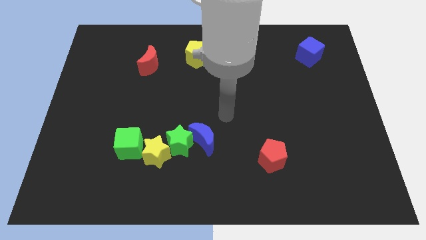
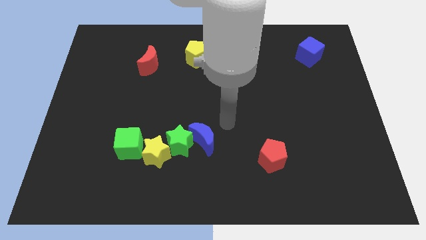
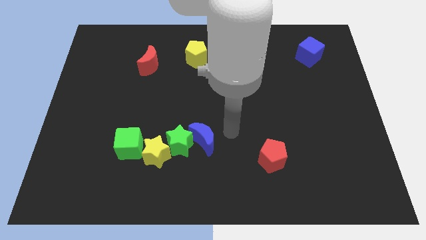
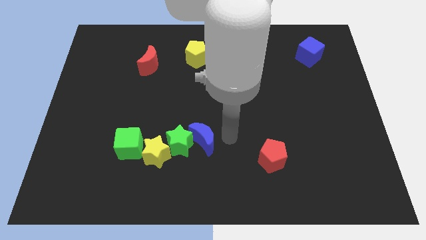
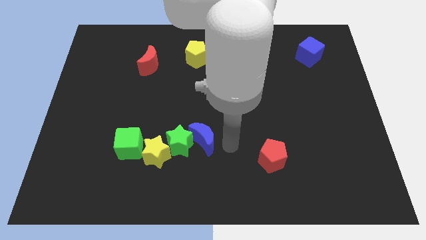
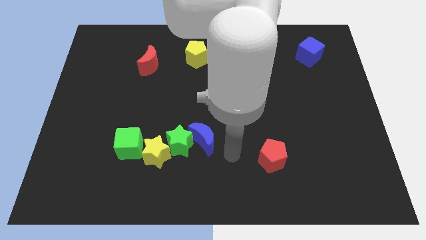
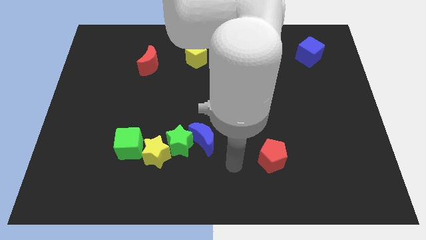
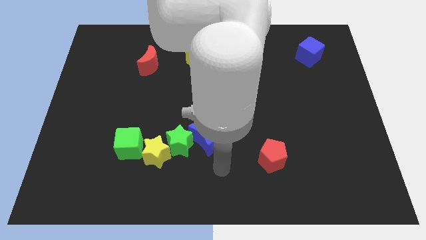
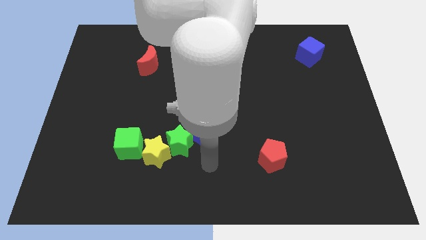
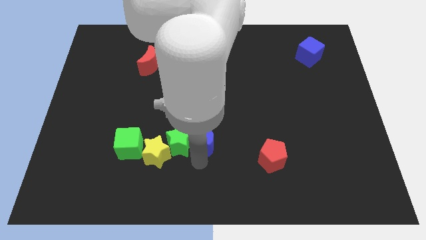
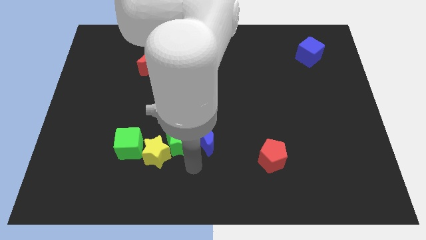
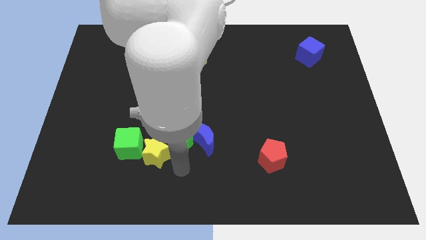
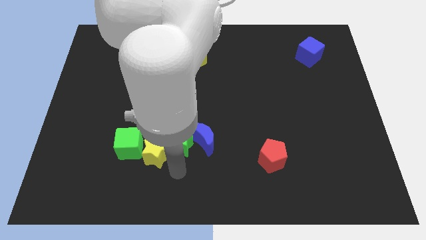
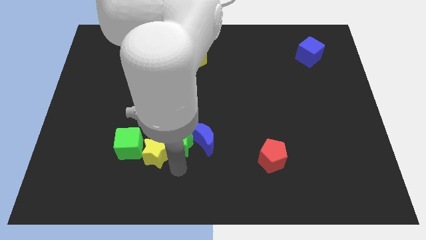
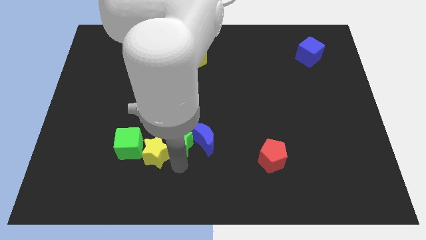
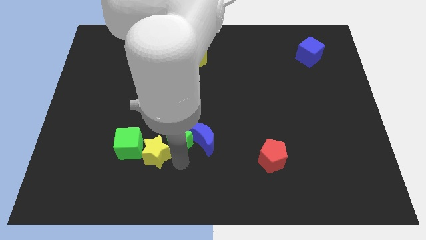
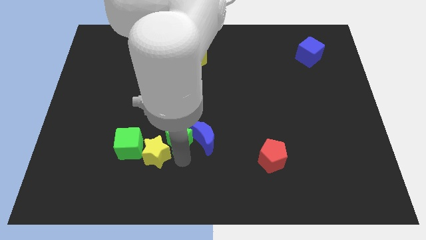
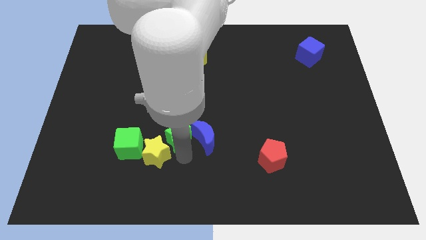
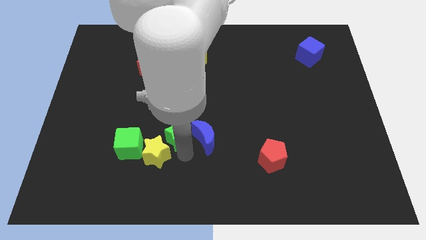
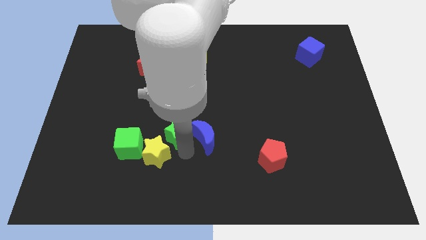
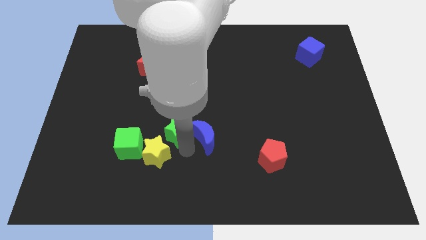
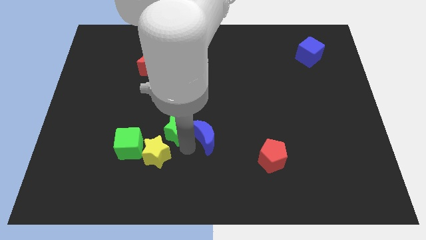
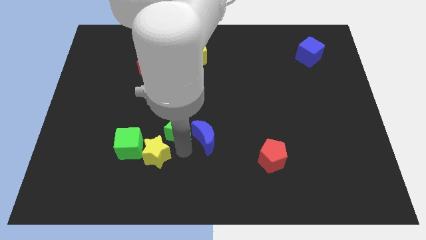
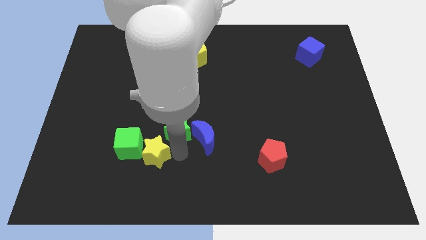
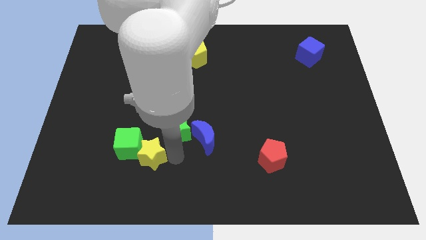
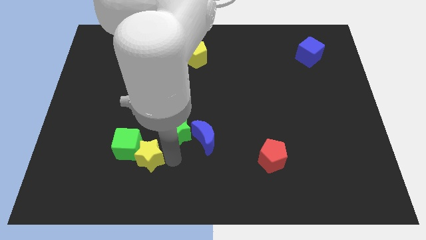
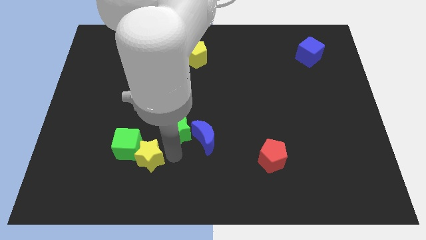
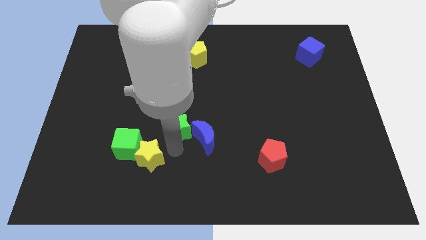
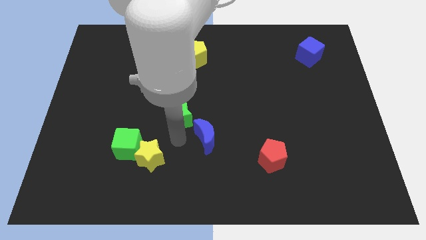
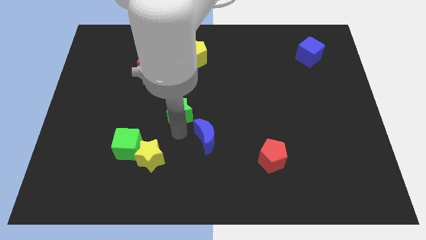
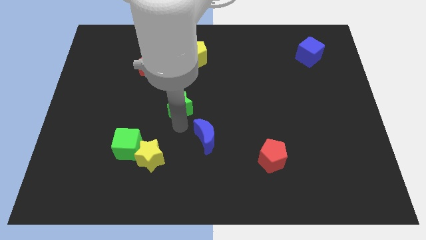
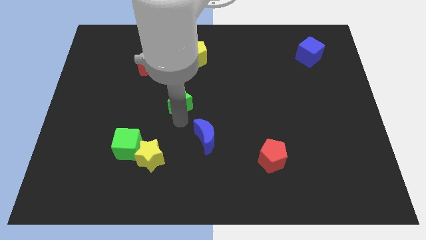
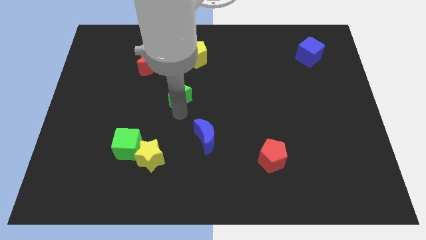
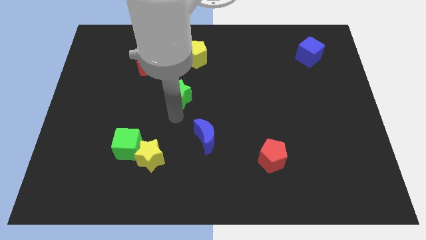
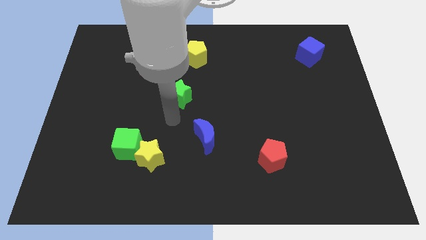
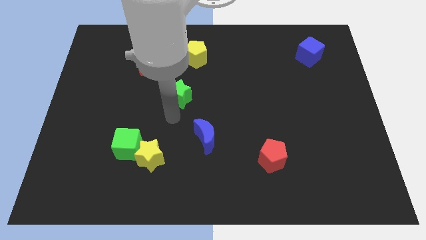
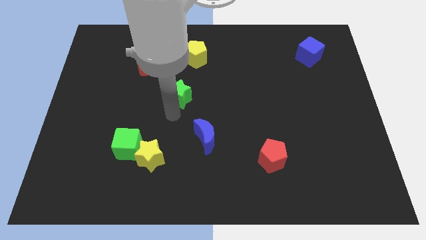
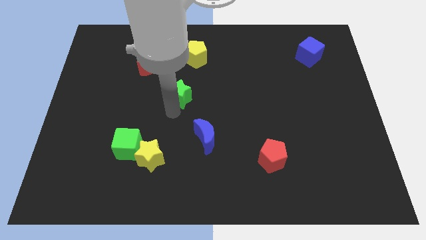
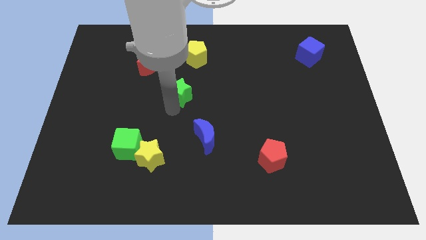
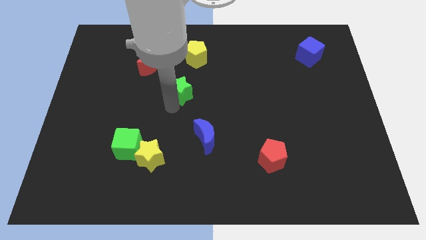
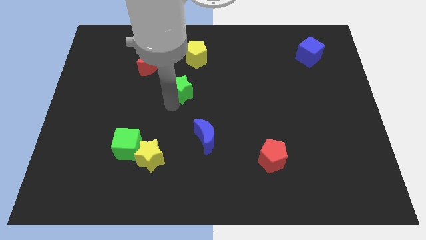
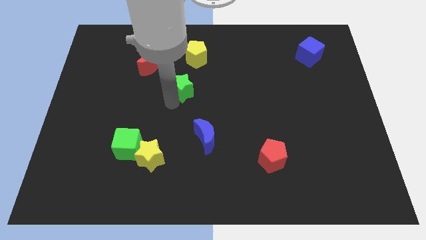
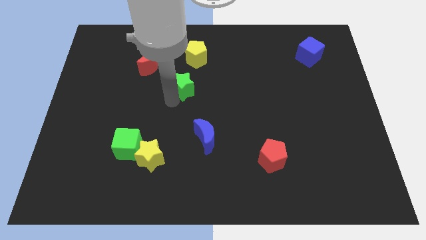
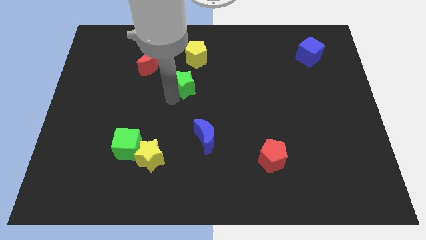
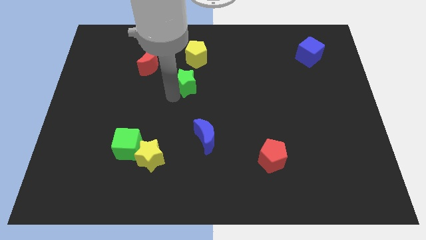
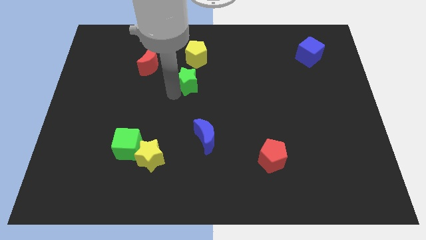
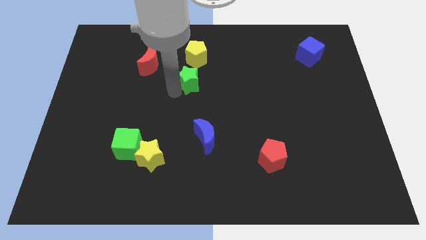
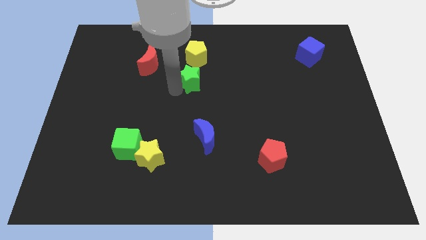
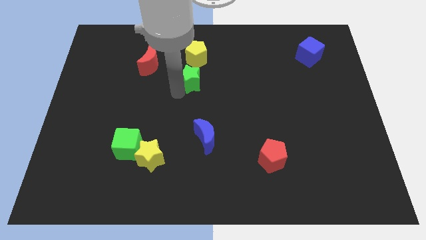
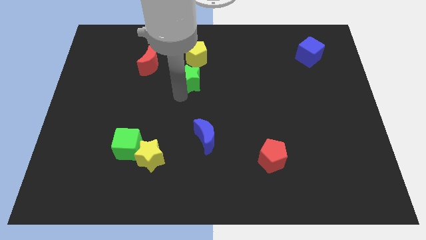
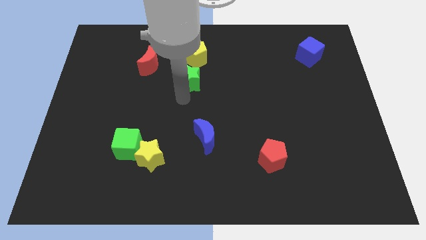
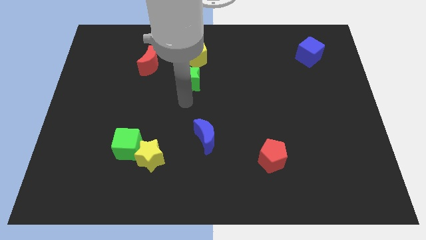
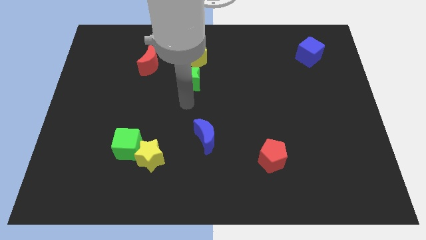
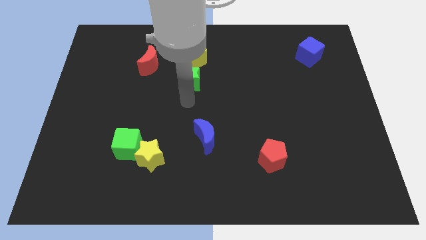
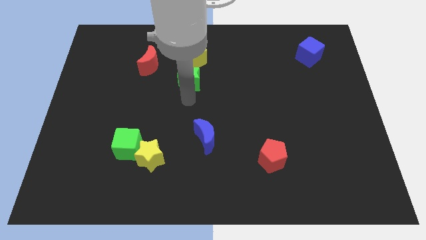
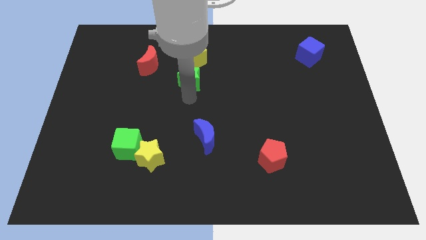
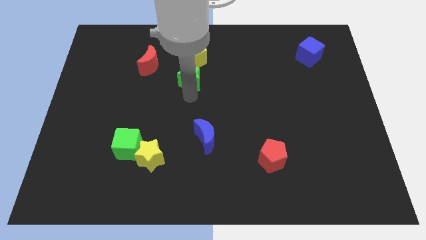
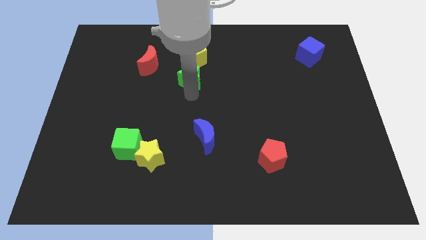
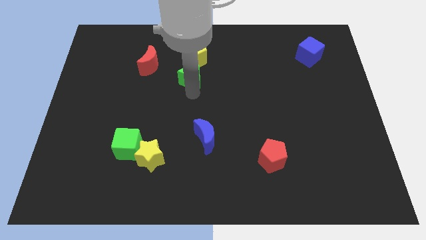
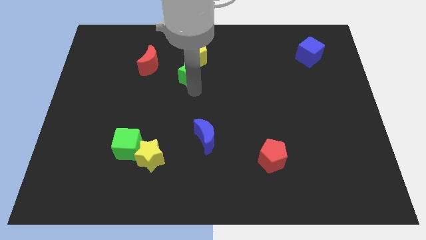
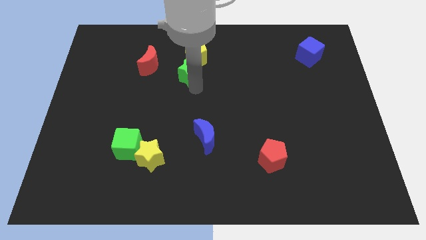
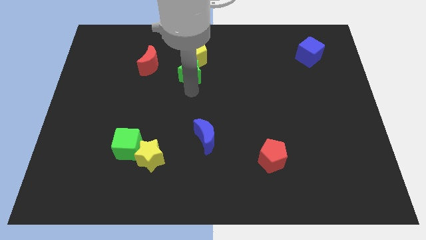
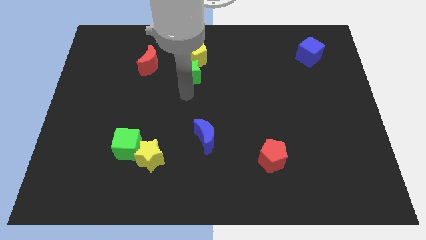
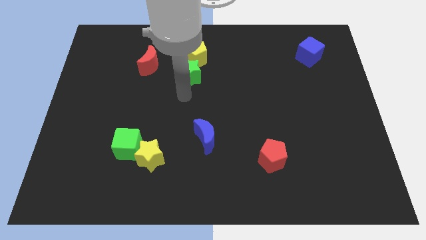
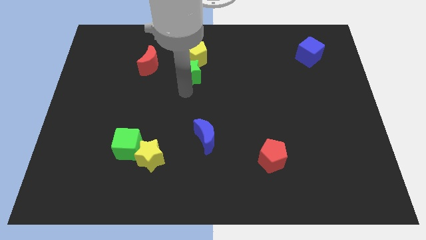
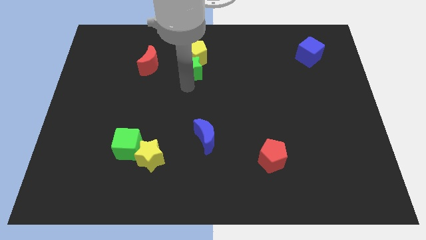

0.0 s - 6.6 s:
move the green star close to the yellow pentagon
